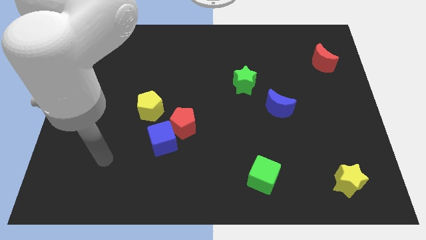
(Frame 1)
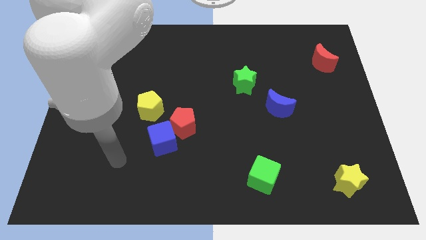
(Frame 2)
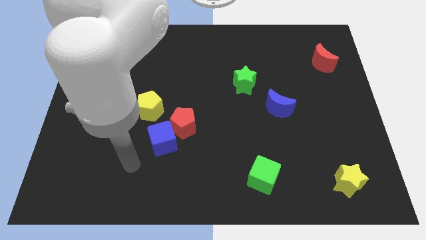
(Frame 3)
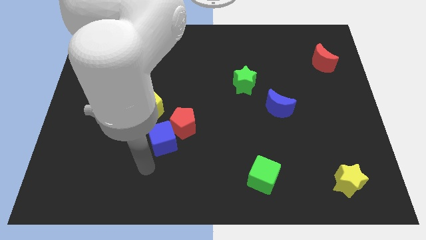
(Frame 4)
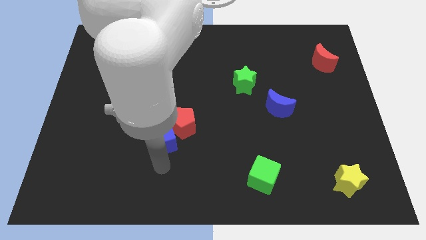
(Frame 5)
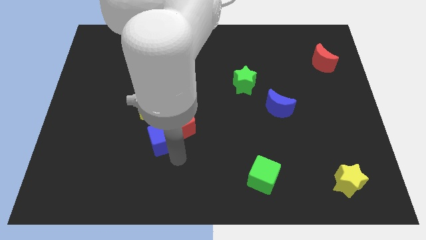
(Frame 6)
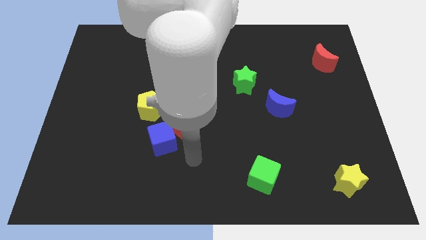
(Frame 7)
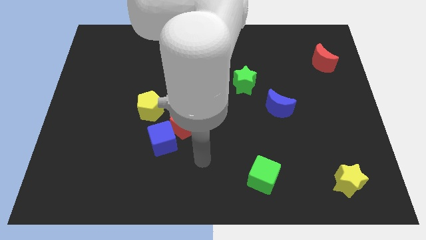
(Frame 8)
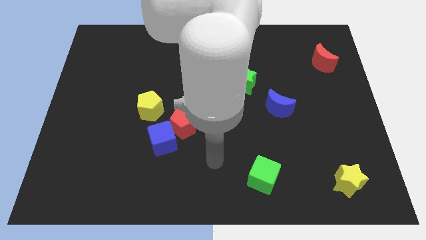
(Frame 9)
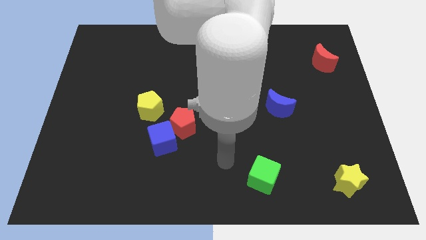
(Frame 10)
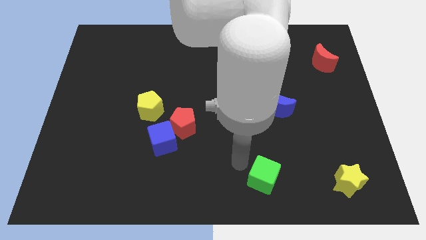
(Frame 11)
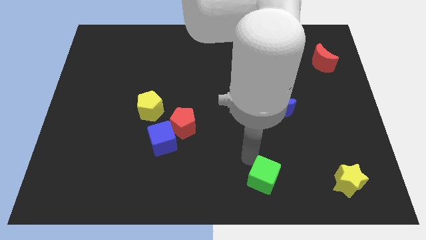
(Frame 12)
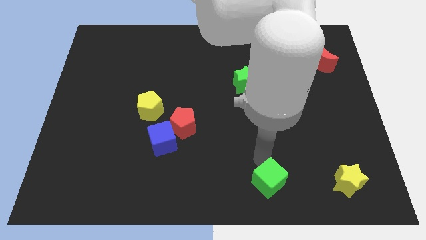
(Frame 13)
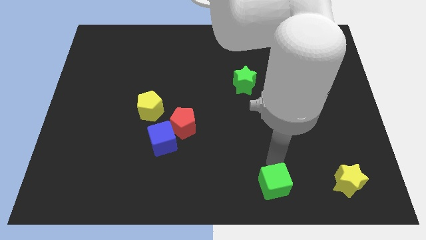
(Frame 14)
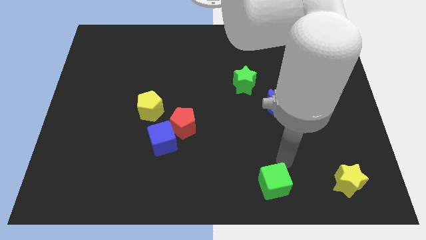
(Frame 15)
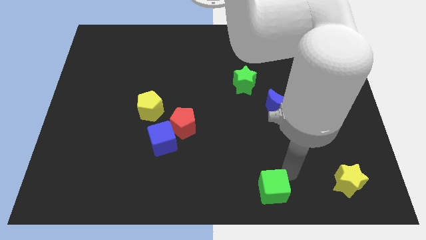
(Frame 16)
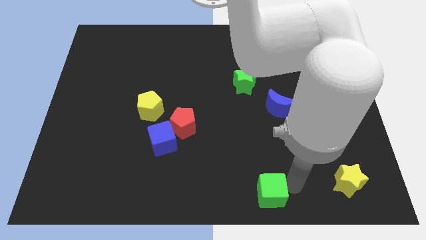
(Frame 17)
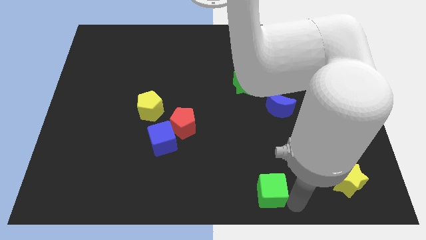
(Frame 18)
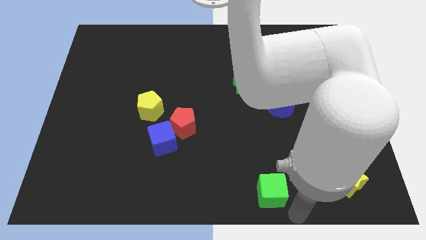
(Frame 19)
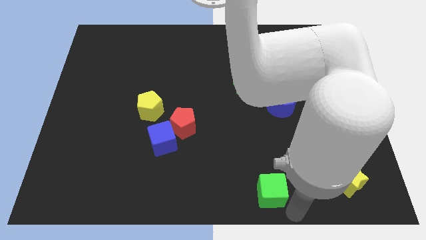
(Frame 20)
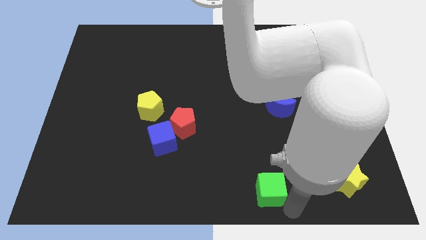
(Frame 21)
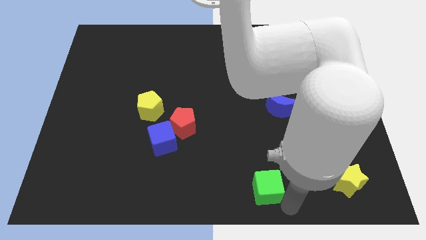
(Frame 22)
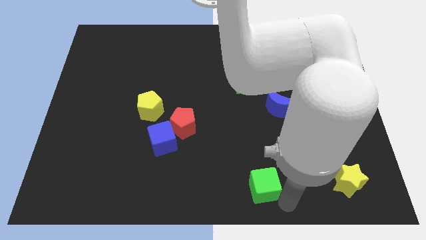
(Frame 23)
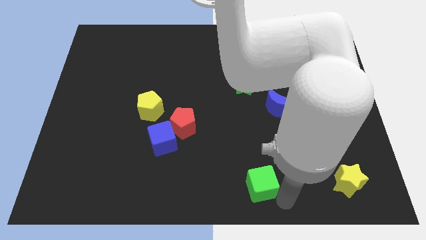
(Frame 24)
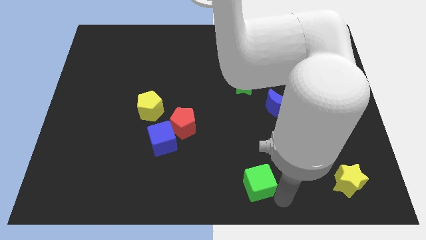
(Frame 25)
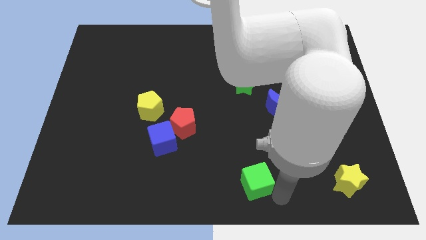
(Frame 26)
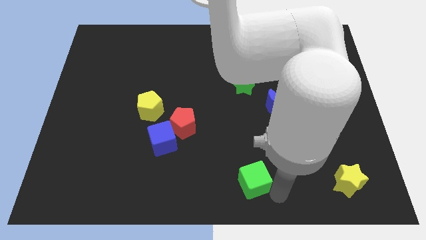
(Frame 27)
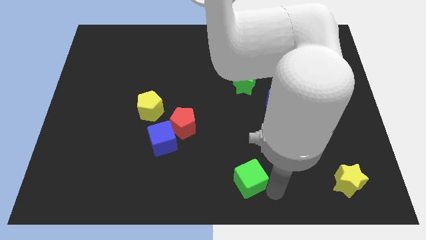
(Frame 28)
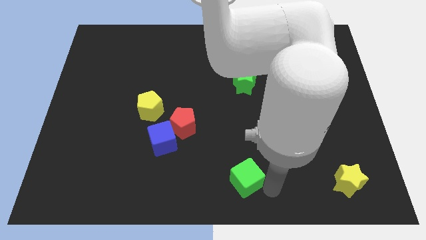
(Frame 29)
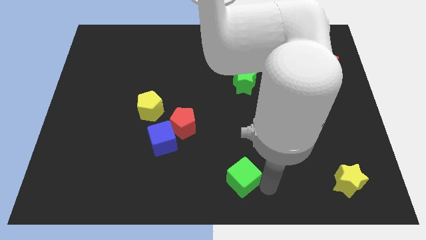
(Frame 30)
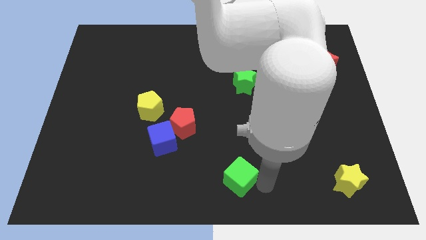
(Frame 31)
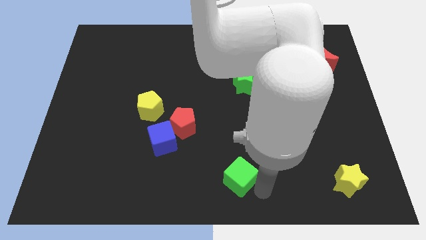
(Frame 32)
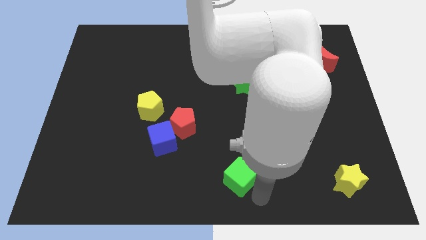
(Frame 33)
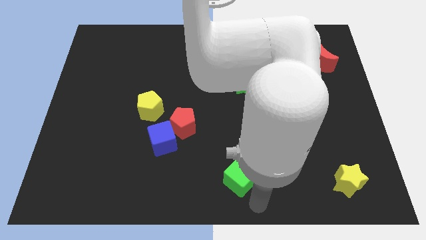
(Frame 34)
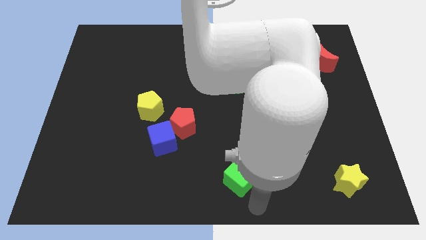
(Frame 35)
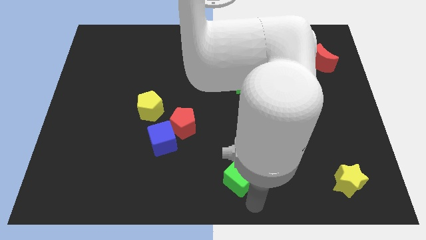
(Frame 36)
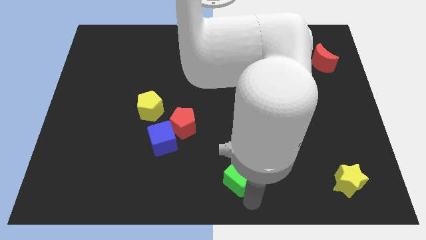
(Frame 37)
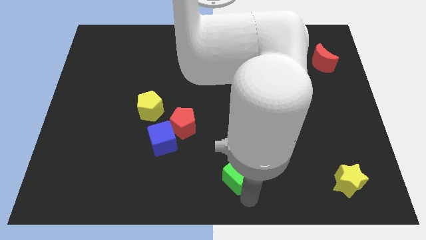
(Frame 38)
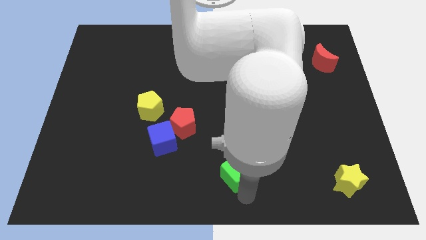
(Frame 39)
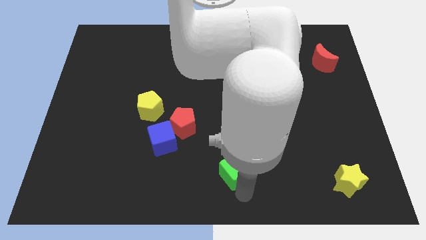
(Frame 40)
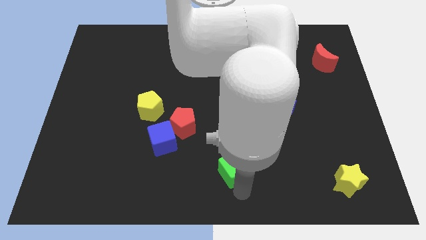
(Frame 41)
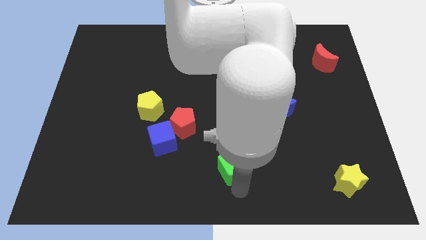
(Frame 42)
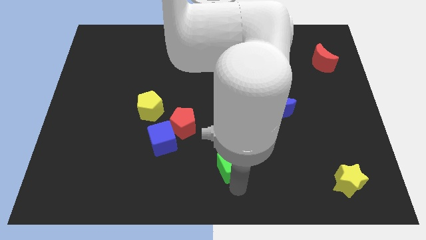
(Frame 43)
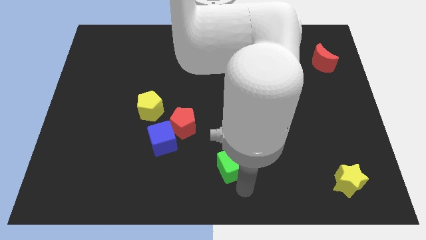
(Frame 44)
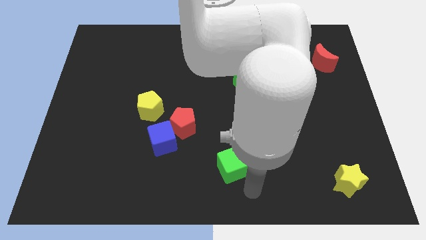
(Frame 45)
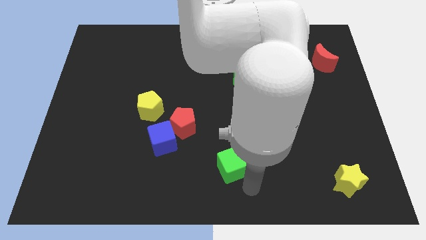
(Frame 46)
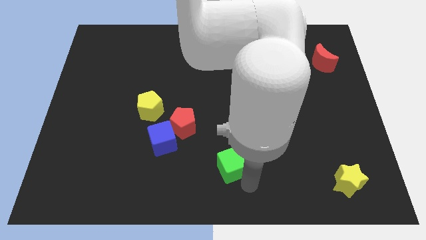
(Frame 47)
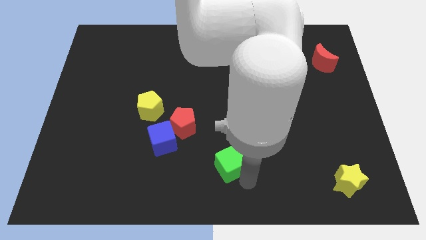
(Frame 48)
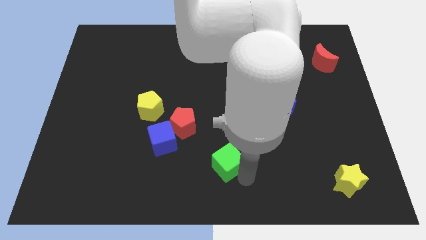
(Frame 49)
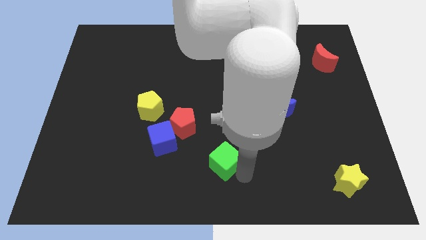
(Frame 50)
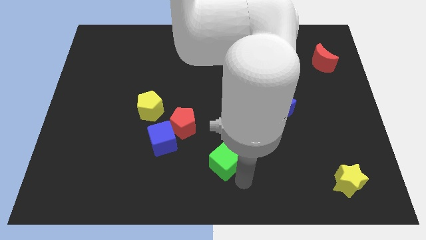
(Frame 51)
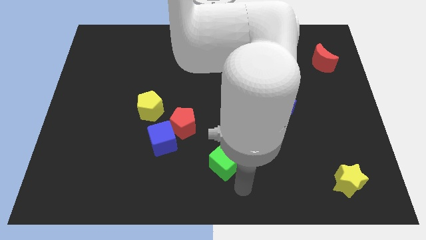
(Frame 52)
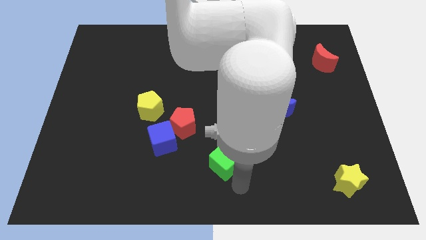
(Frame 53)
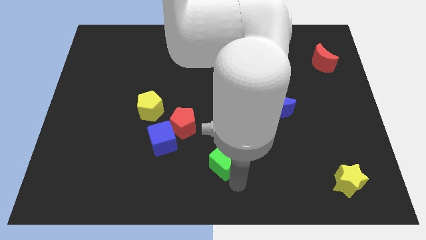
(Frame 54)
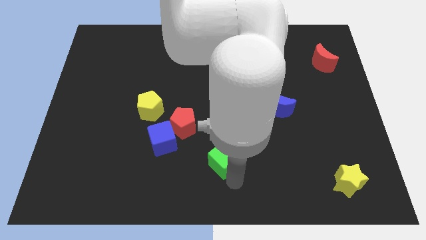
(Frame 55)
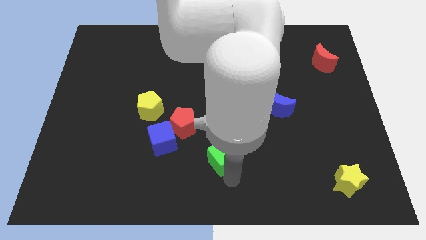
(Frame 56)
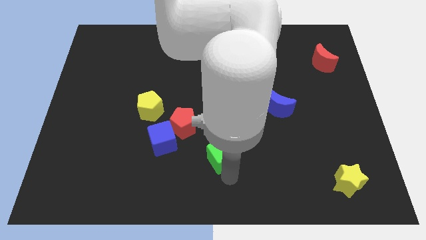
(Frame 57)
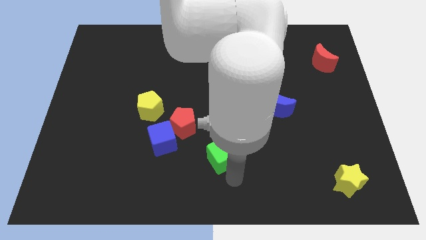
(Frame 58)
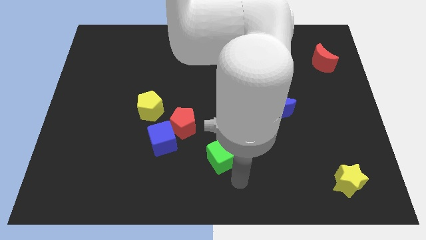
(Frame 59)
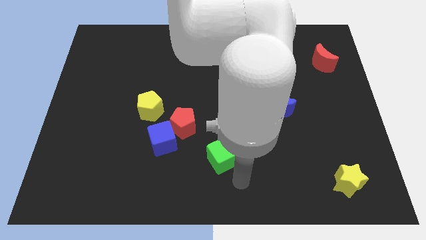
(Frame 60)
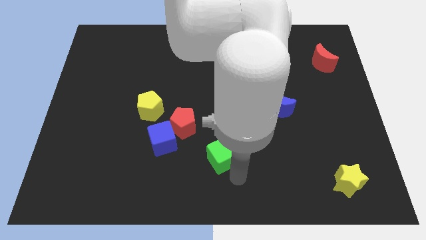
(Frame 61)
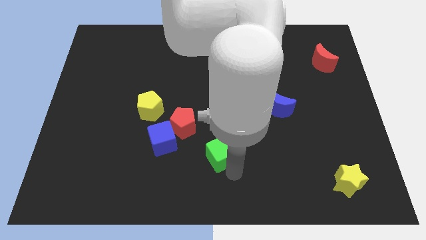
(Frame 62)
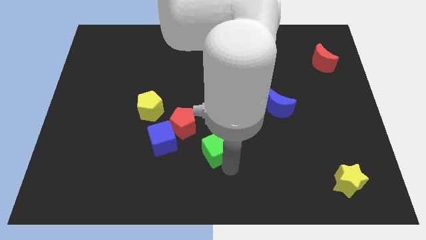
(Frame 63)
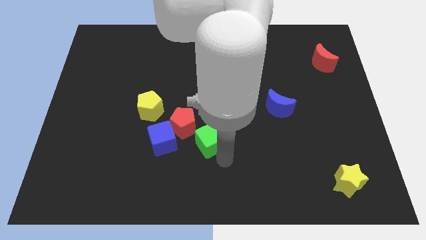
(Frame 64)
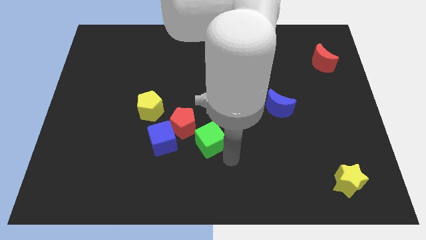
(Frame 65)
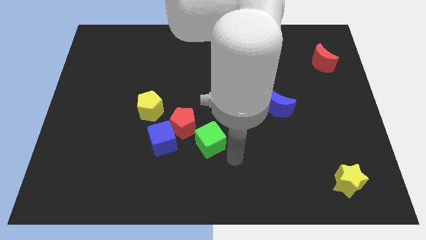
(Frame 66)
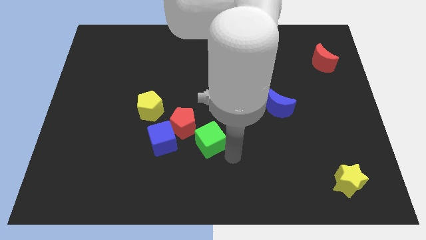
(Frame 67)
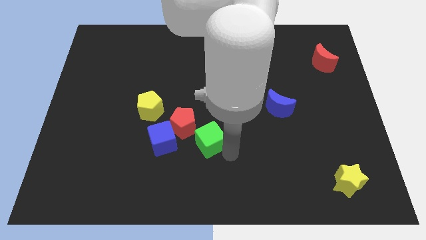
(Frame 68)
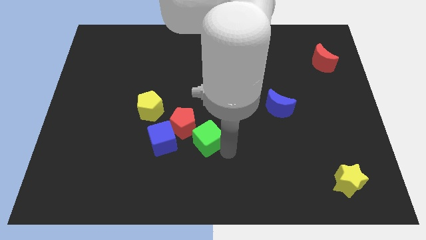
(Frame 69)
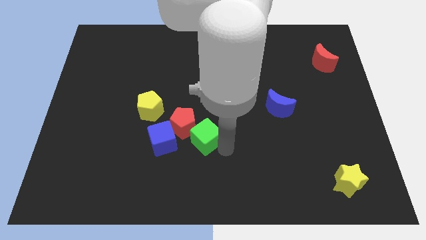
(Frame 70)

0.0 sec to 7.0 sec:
move the green cube towards the red pentagon
